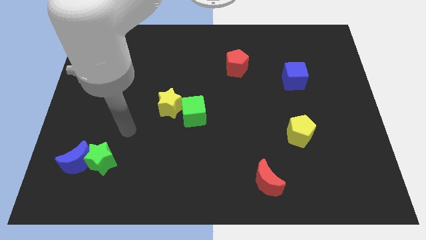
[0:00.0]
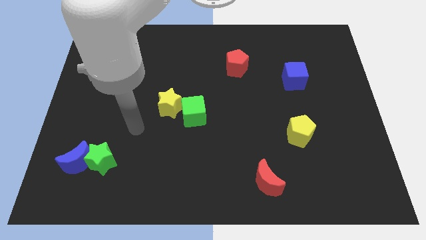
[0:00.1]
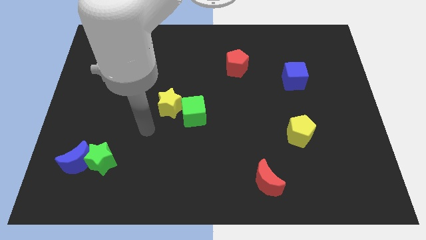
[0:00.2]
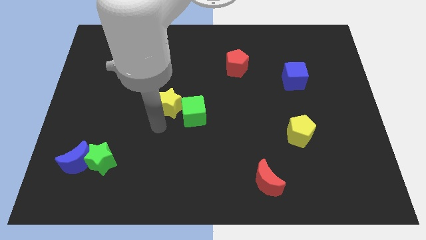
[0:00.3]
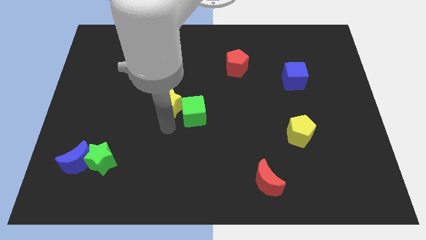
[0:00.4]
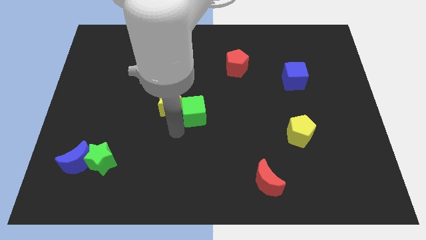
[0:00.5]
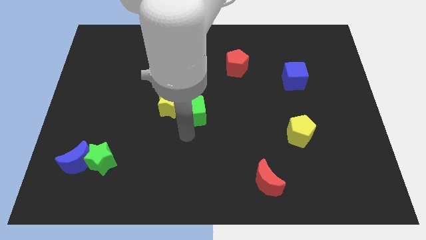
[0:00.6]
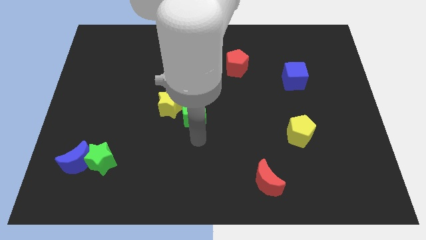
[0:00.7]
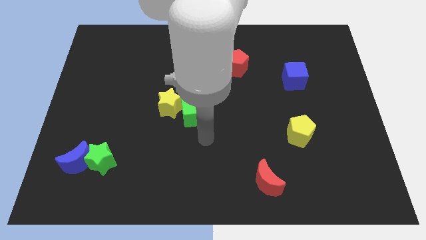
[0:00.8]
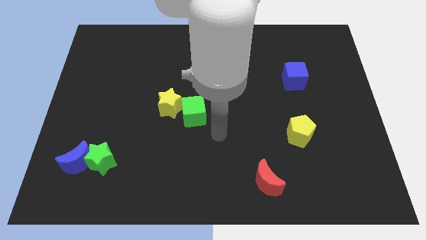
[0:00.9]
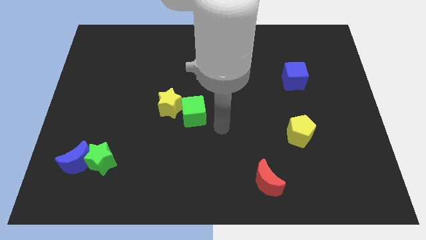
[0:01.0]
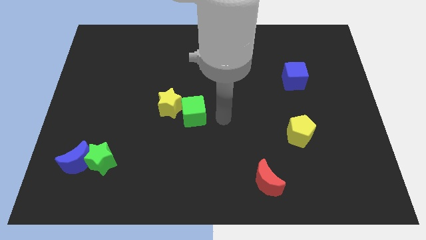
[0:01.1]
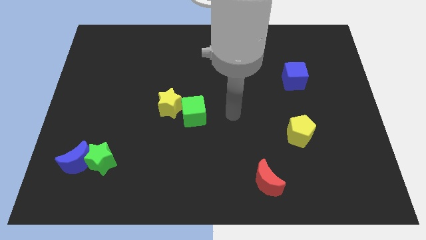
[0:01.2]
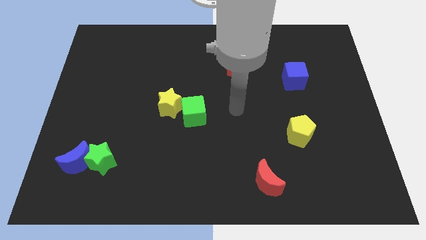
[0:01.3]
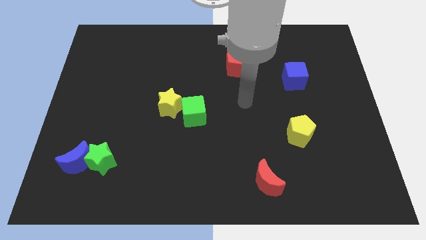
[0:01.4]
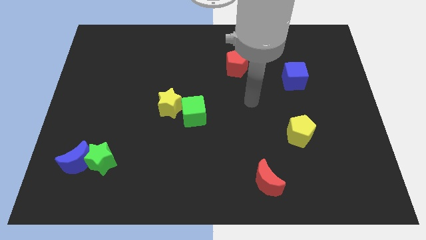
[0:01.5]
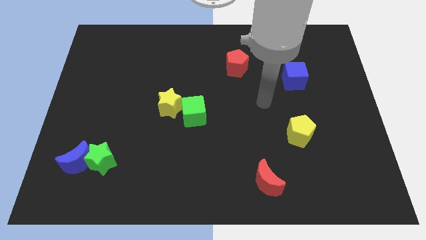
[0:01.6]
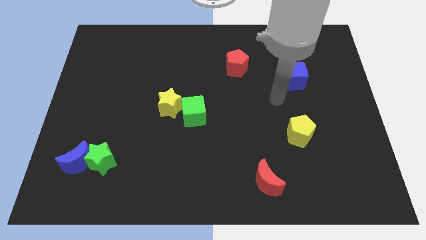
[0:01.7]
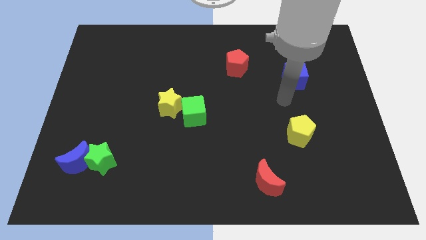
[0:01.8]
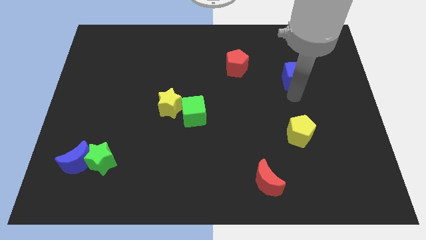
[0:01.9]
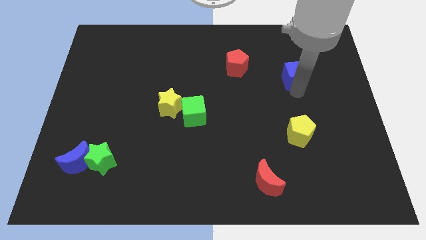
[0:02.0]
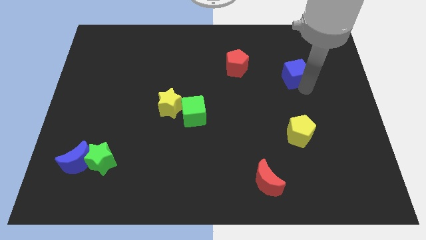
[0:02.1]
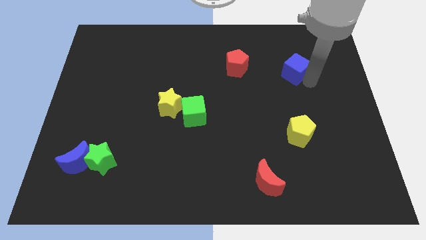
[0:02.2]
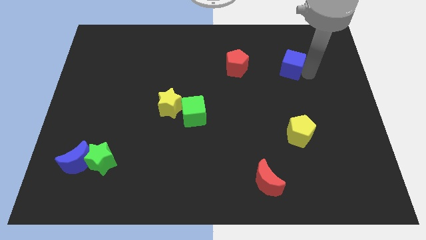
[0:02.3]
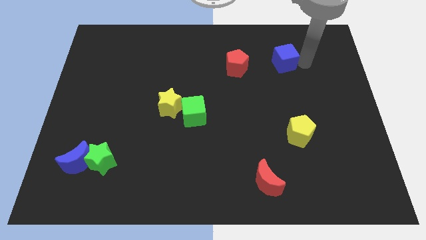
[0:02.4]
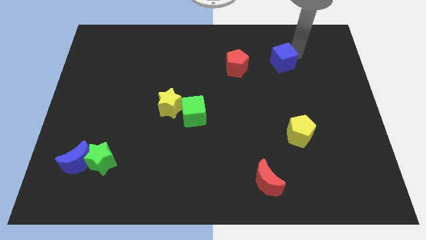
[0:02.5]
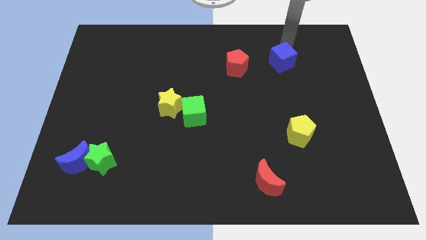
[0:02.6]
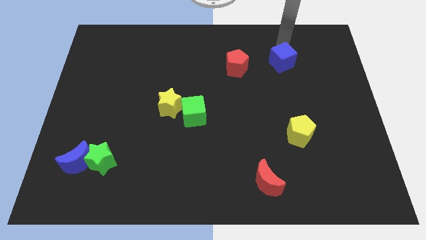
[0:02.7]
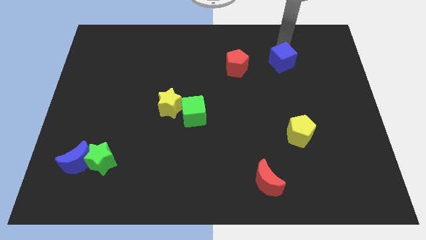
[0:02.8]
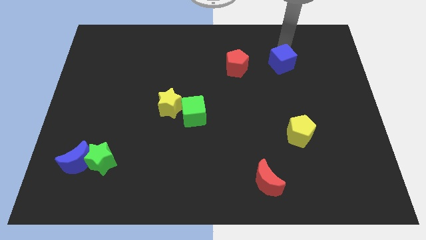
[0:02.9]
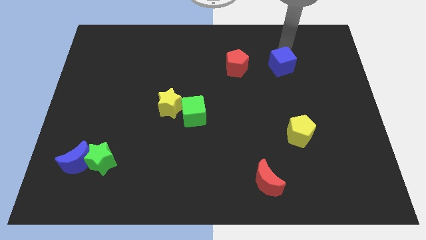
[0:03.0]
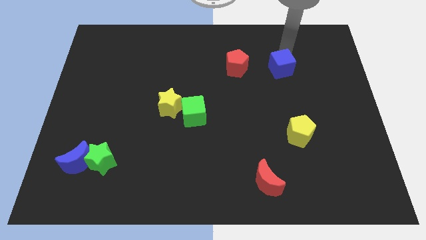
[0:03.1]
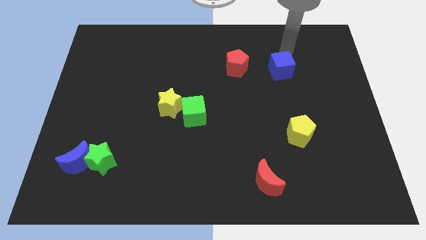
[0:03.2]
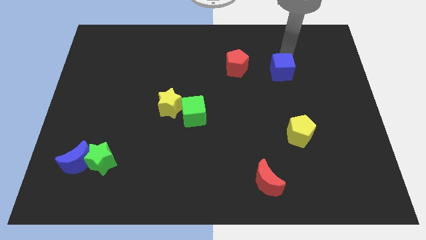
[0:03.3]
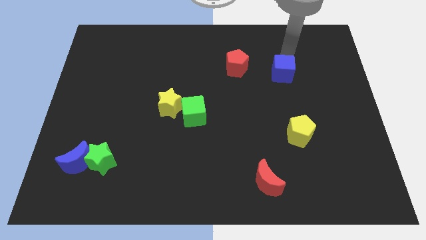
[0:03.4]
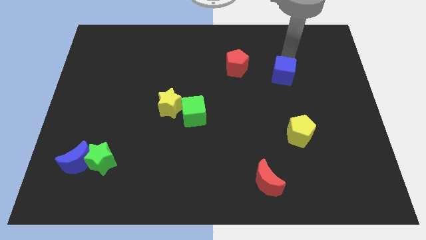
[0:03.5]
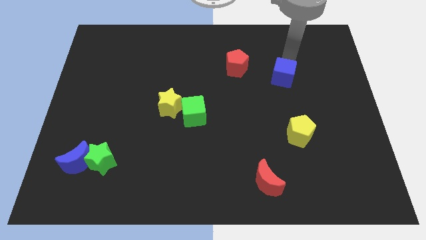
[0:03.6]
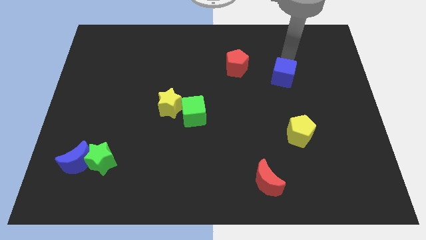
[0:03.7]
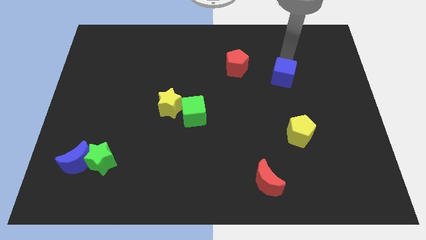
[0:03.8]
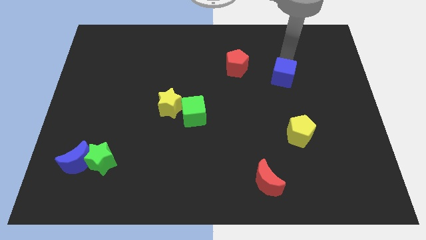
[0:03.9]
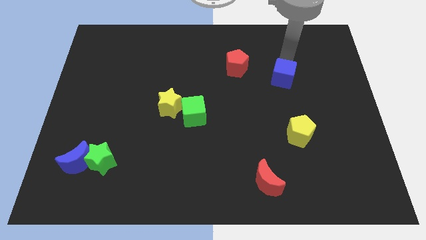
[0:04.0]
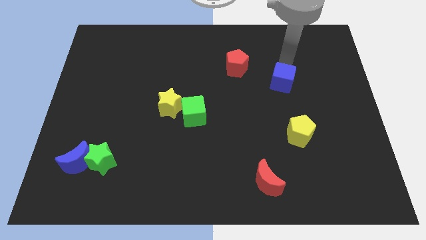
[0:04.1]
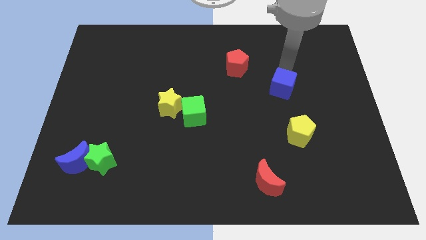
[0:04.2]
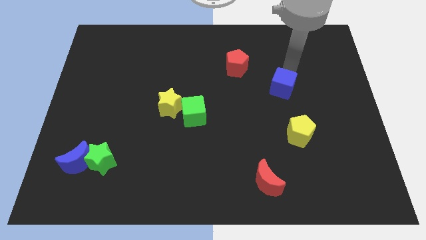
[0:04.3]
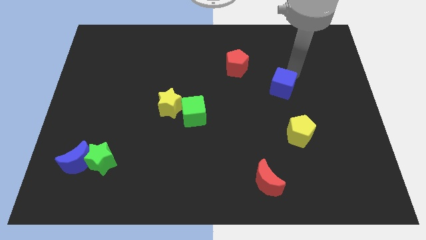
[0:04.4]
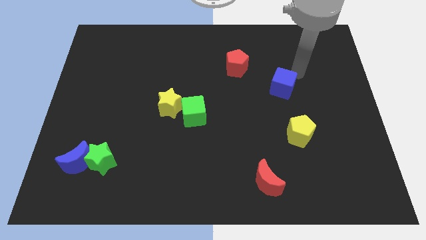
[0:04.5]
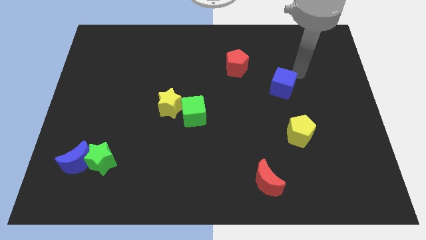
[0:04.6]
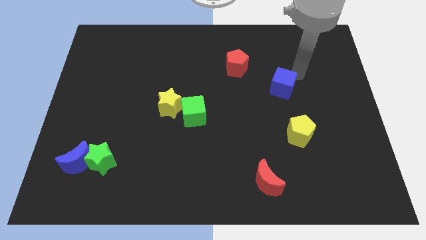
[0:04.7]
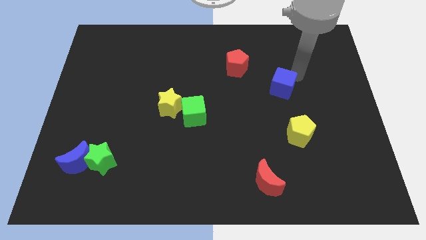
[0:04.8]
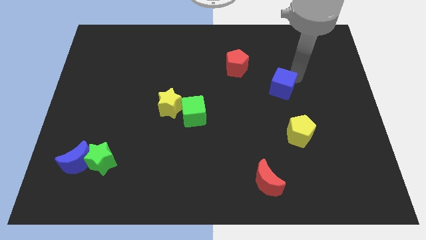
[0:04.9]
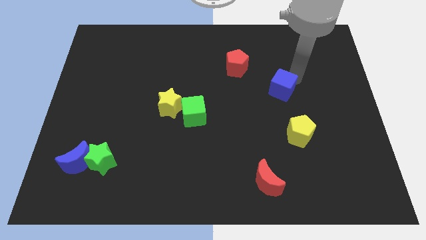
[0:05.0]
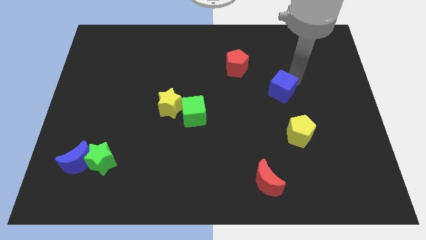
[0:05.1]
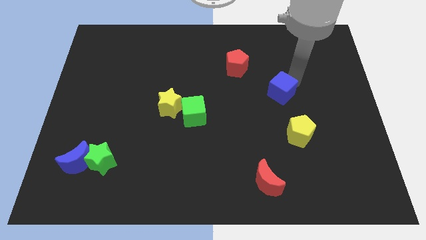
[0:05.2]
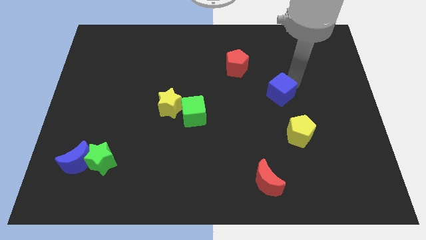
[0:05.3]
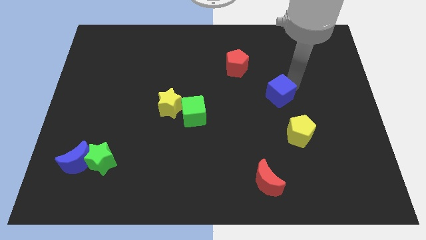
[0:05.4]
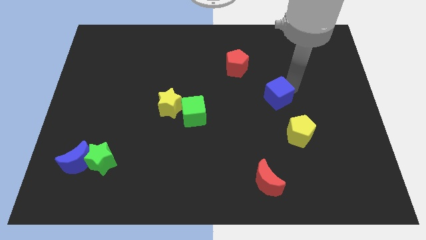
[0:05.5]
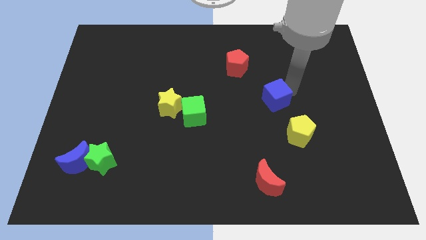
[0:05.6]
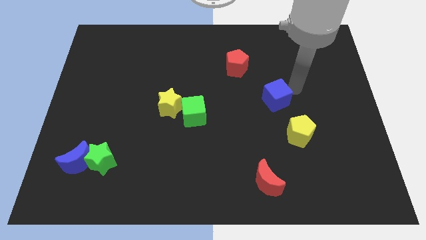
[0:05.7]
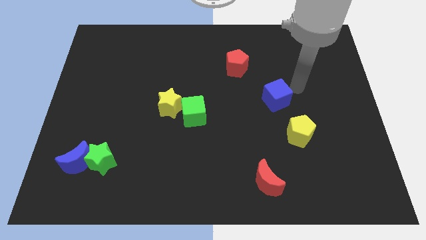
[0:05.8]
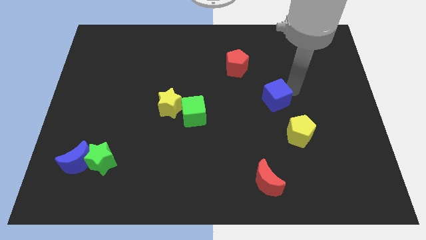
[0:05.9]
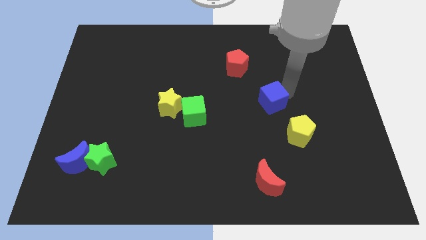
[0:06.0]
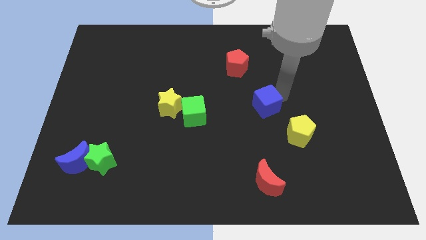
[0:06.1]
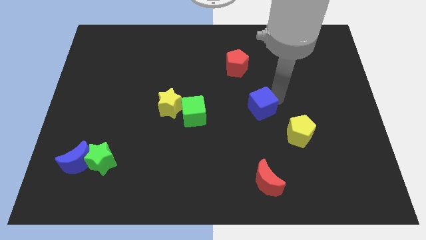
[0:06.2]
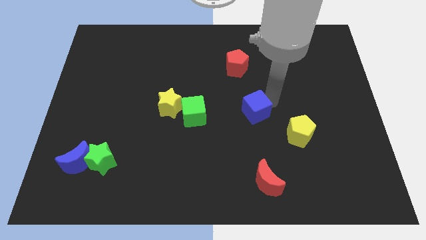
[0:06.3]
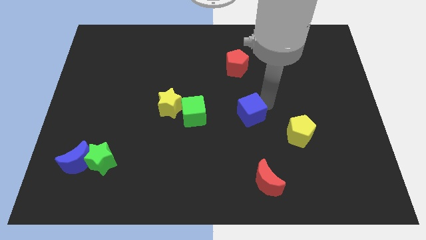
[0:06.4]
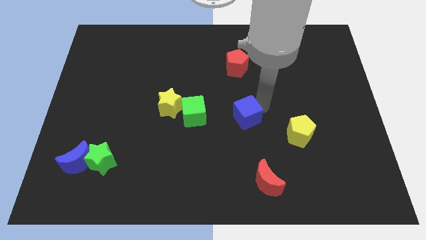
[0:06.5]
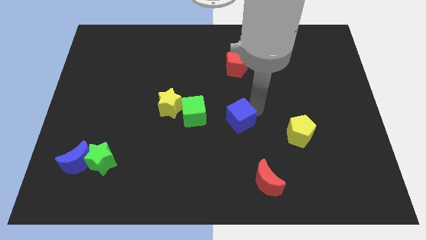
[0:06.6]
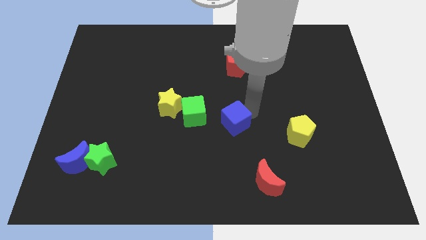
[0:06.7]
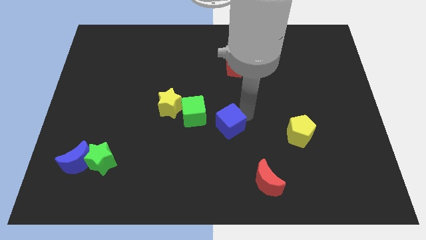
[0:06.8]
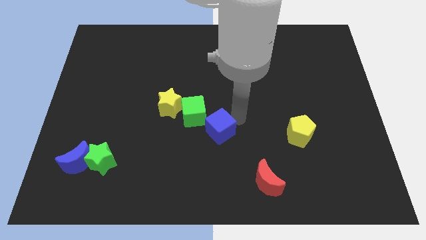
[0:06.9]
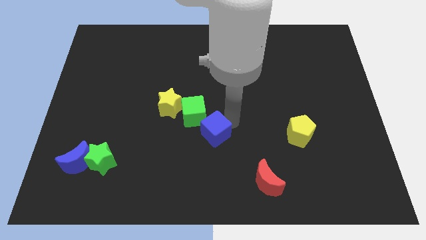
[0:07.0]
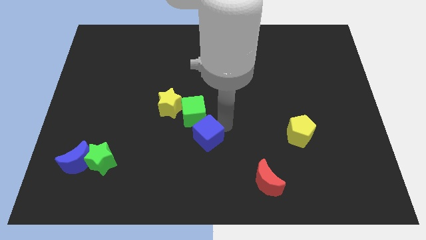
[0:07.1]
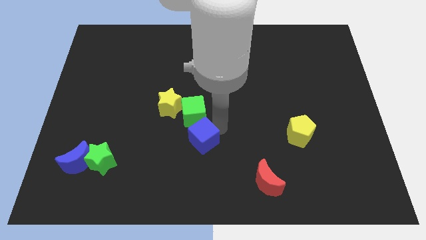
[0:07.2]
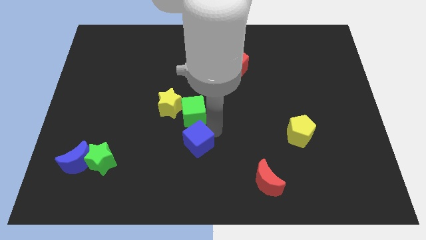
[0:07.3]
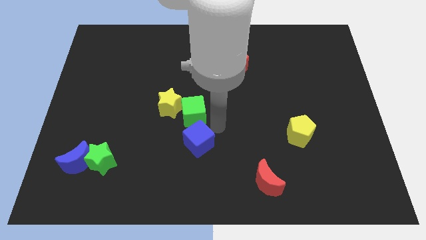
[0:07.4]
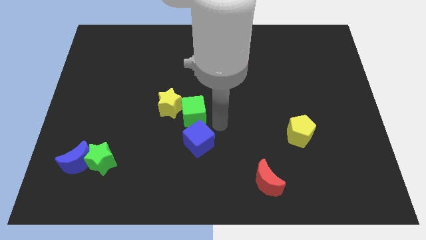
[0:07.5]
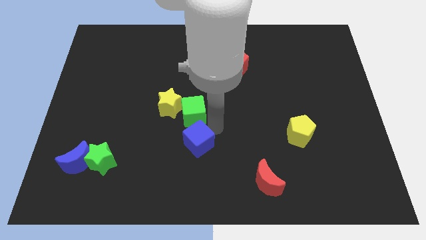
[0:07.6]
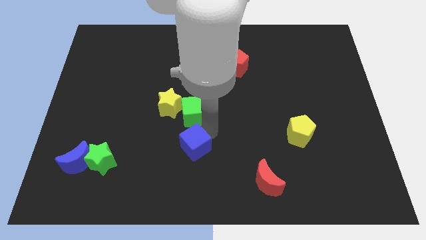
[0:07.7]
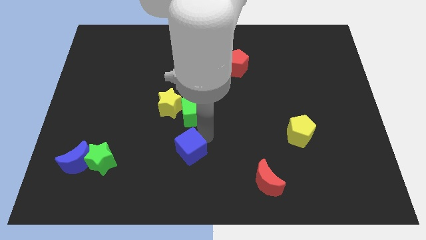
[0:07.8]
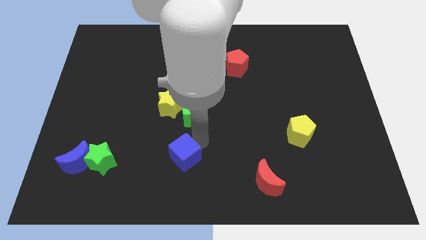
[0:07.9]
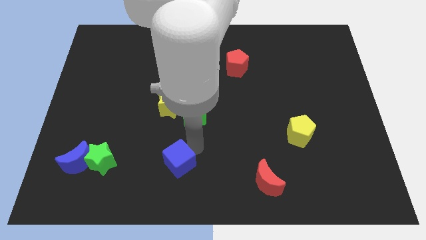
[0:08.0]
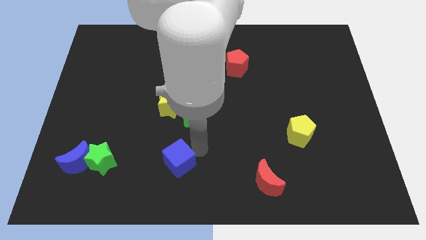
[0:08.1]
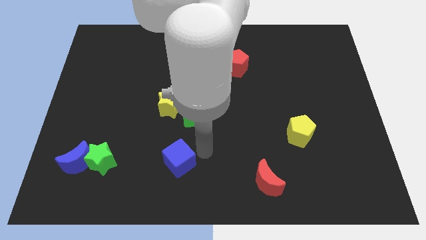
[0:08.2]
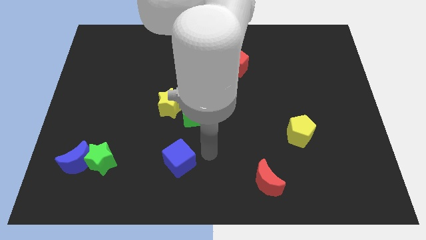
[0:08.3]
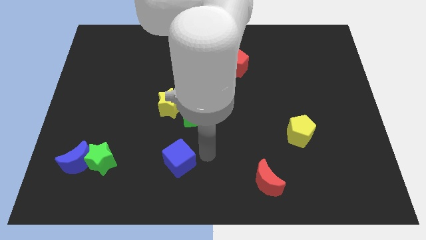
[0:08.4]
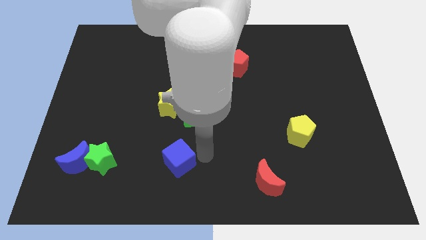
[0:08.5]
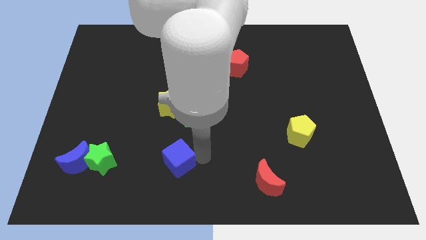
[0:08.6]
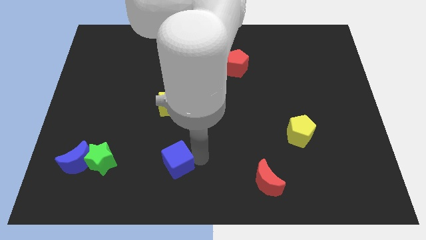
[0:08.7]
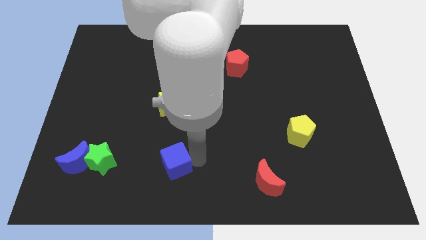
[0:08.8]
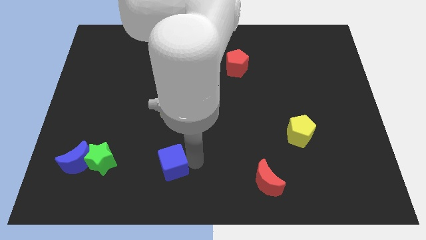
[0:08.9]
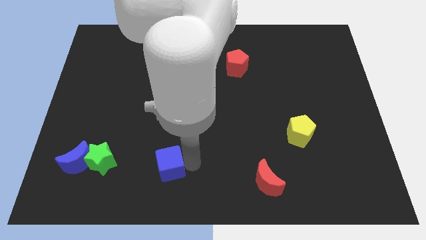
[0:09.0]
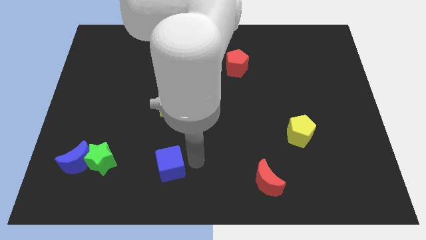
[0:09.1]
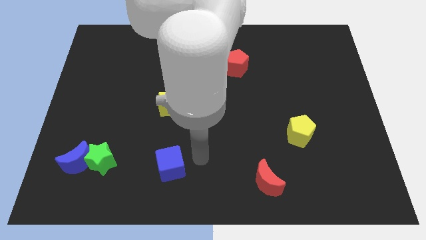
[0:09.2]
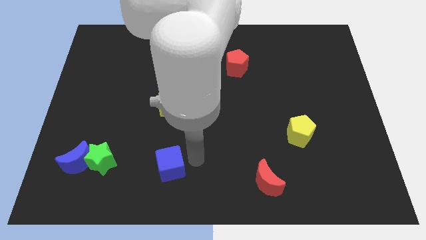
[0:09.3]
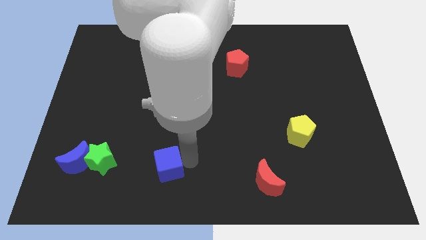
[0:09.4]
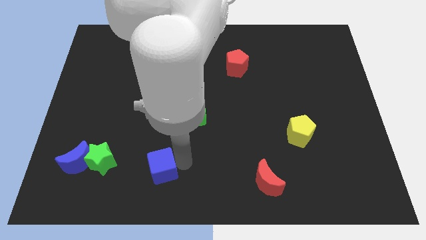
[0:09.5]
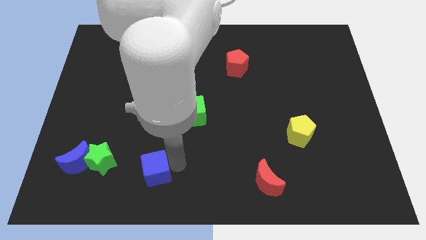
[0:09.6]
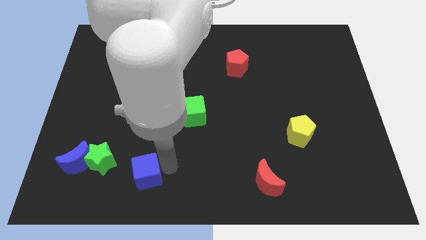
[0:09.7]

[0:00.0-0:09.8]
push the blue cube to the bottom right side of the green star
